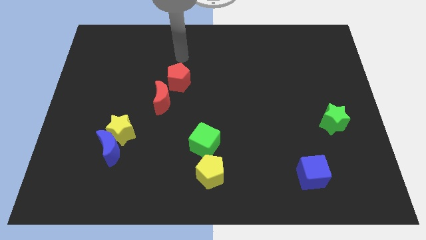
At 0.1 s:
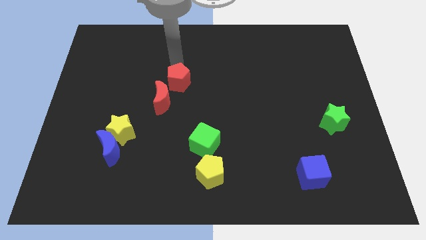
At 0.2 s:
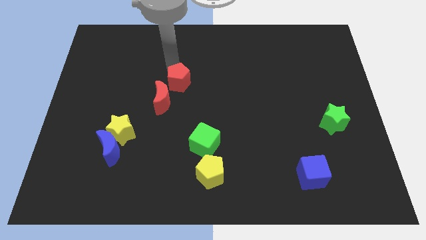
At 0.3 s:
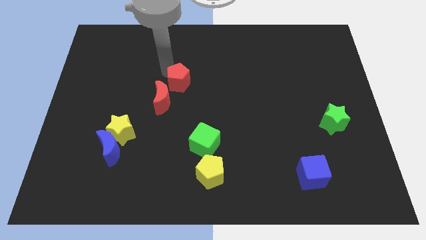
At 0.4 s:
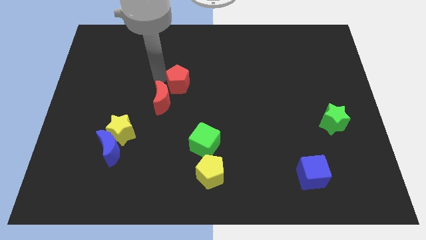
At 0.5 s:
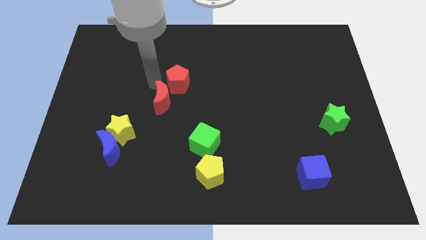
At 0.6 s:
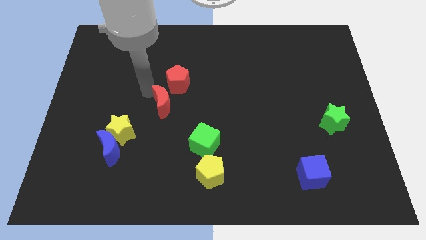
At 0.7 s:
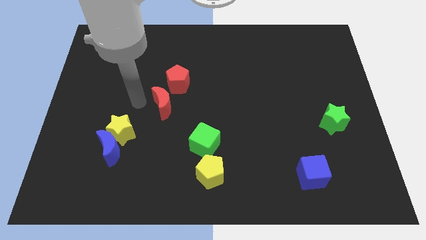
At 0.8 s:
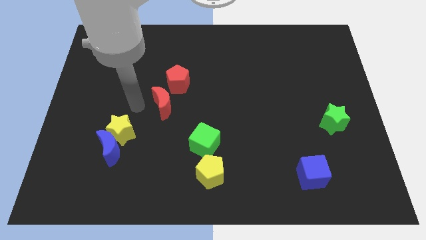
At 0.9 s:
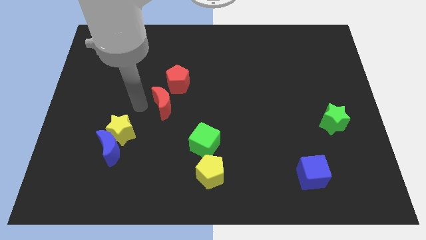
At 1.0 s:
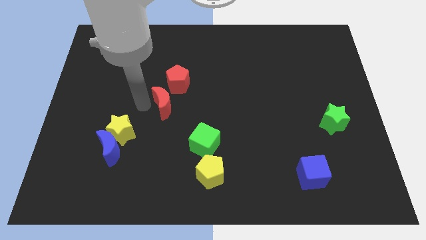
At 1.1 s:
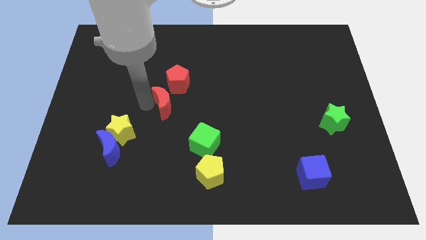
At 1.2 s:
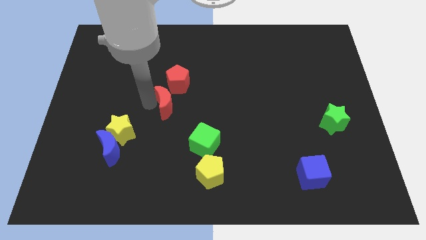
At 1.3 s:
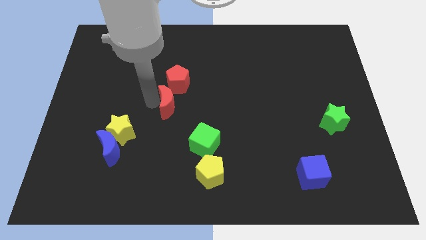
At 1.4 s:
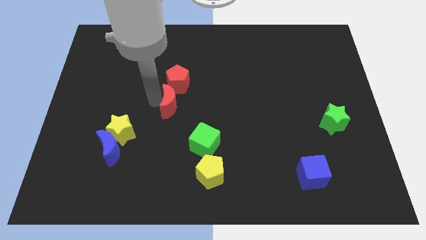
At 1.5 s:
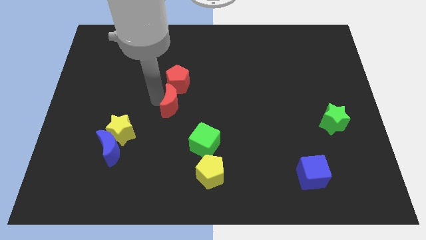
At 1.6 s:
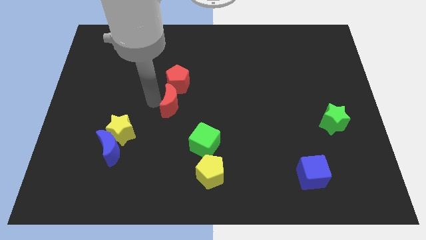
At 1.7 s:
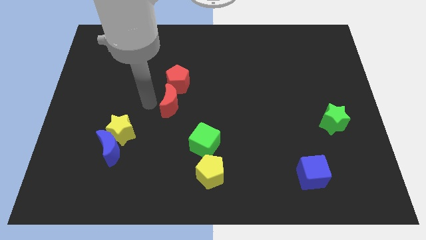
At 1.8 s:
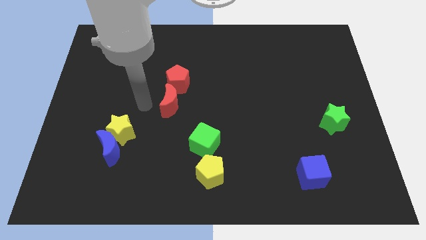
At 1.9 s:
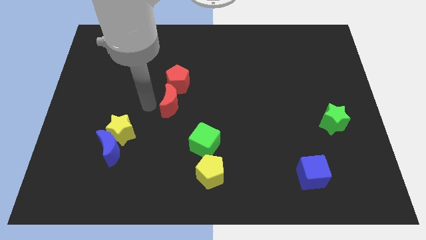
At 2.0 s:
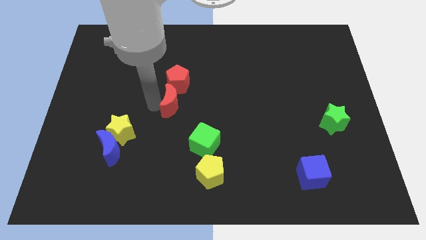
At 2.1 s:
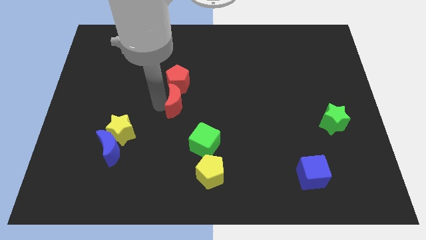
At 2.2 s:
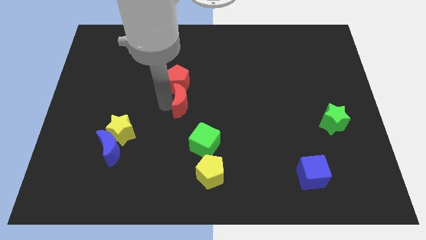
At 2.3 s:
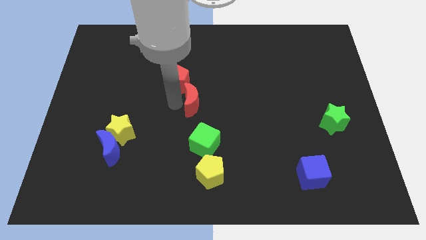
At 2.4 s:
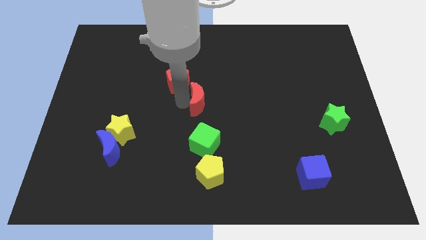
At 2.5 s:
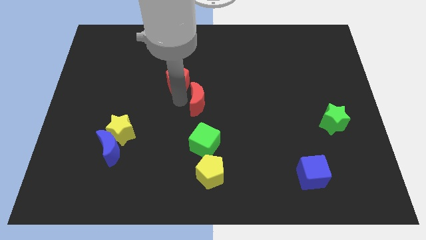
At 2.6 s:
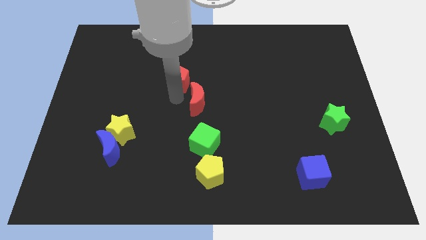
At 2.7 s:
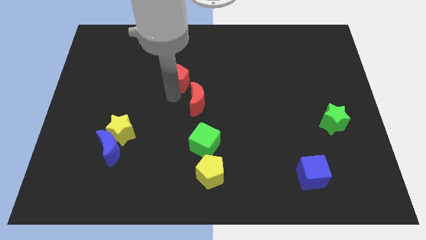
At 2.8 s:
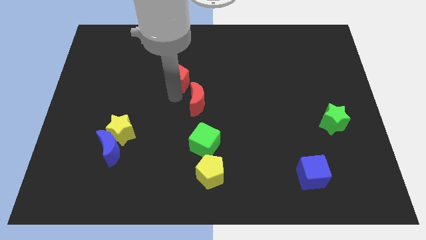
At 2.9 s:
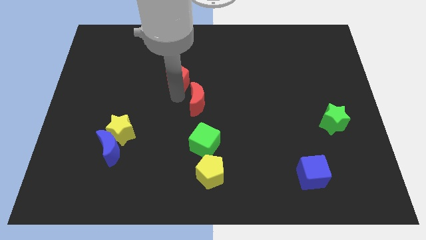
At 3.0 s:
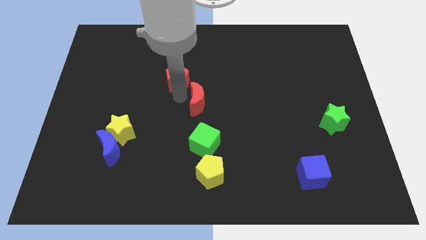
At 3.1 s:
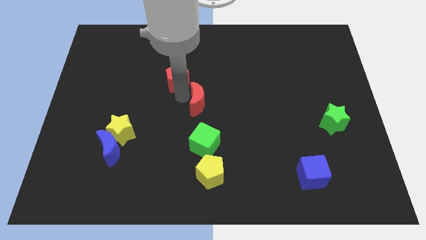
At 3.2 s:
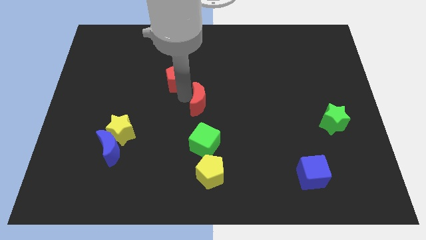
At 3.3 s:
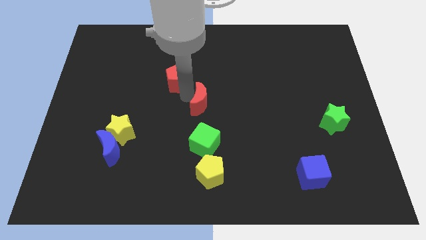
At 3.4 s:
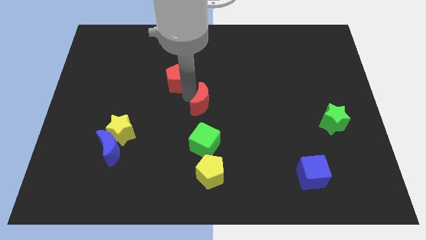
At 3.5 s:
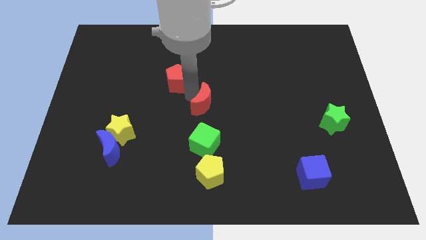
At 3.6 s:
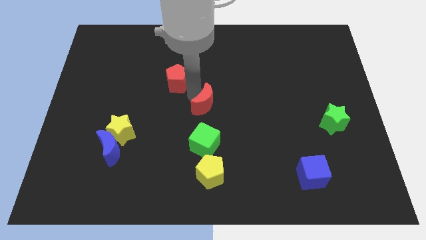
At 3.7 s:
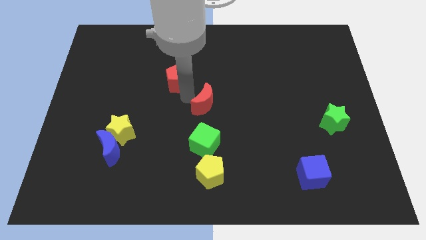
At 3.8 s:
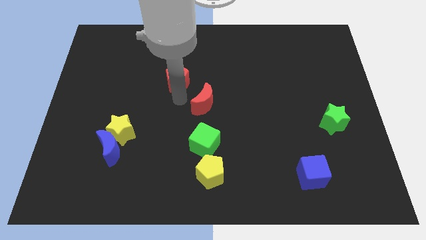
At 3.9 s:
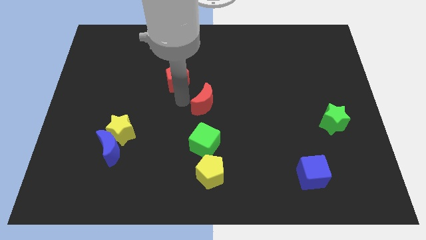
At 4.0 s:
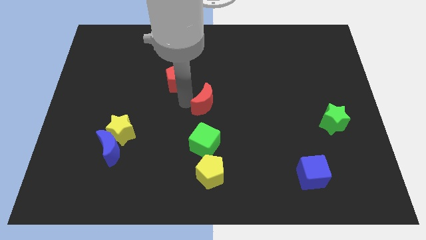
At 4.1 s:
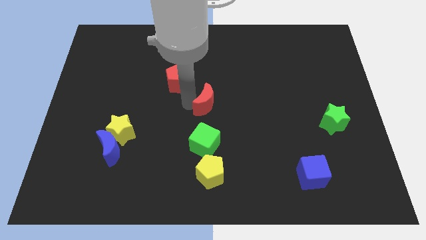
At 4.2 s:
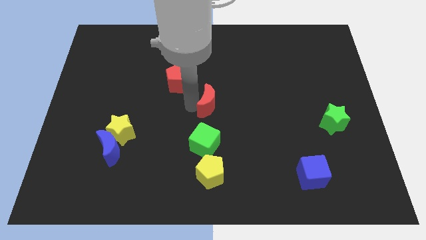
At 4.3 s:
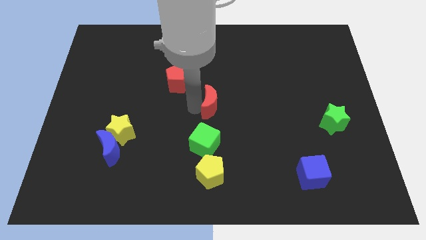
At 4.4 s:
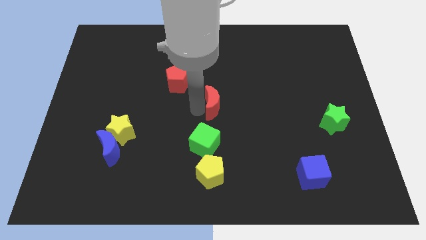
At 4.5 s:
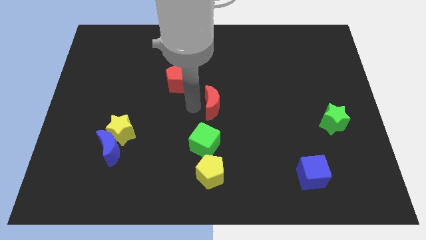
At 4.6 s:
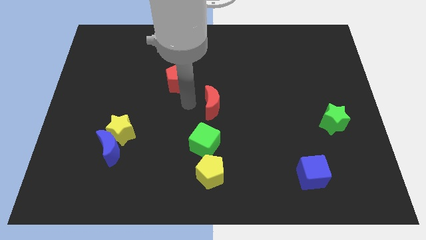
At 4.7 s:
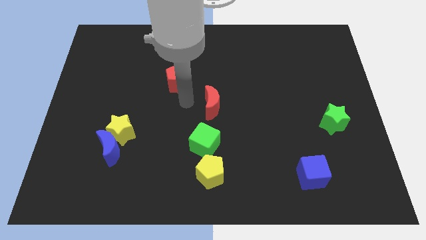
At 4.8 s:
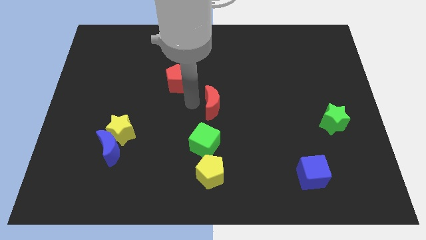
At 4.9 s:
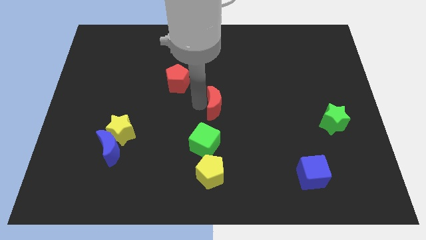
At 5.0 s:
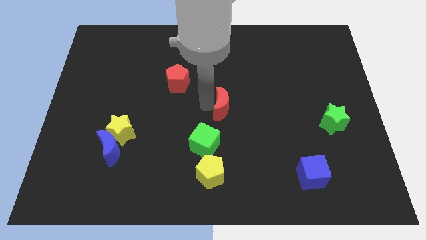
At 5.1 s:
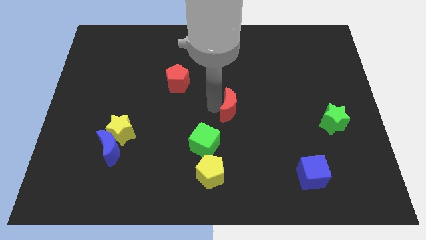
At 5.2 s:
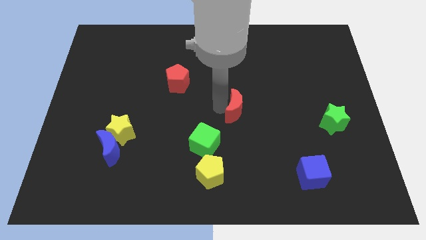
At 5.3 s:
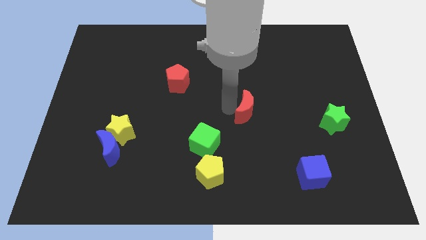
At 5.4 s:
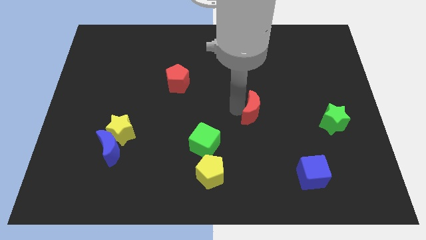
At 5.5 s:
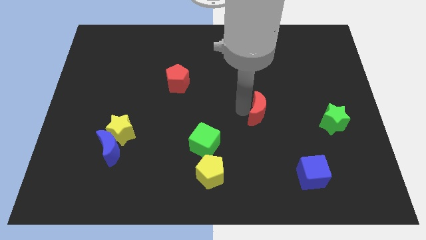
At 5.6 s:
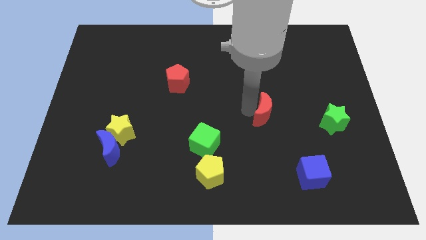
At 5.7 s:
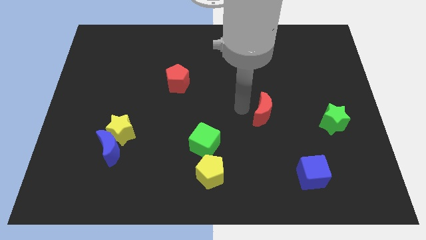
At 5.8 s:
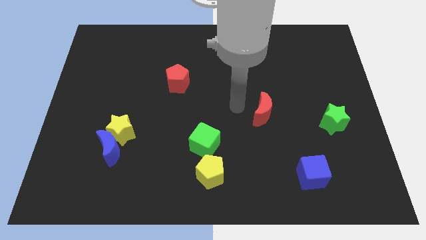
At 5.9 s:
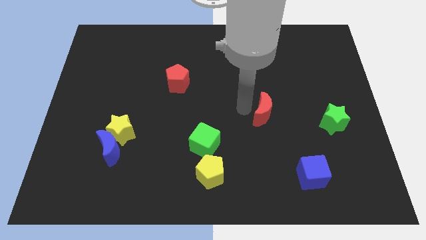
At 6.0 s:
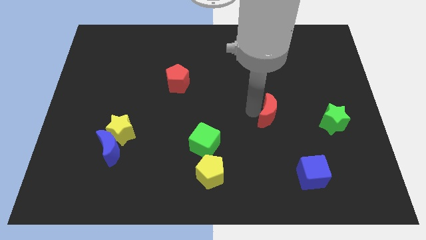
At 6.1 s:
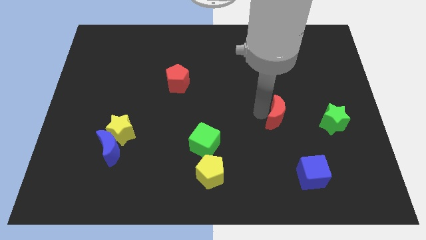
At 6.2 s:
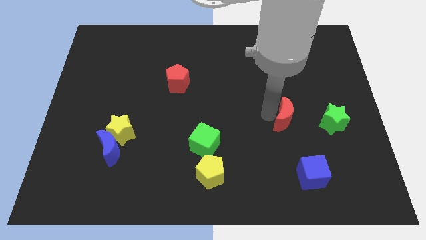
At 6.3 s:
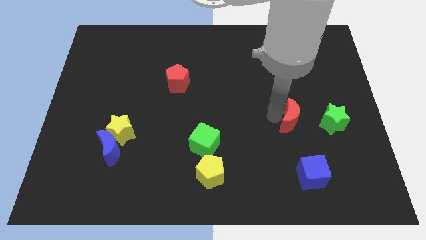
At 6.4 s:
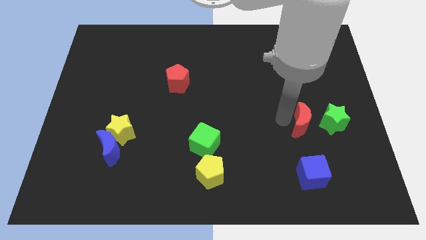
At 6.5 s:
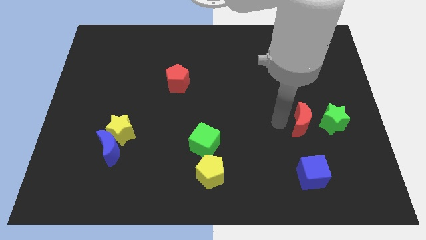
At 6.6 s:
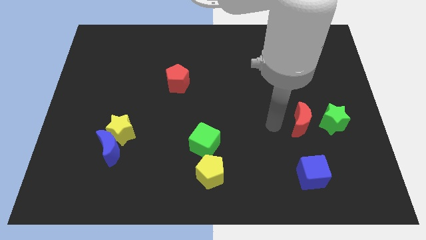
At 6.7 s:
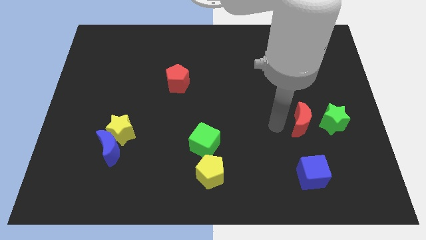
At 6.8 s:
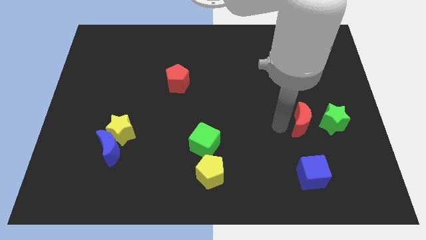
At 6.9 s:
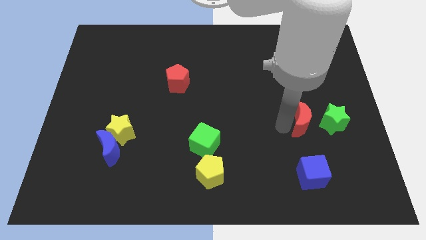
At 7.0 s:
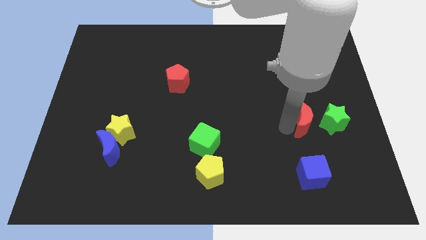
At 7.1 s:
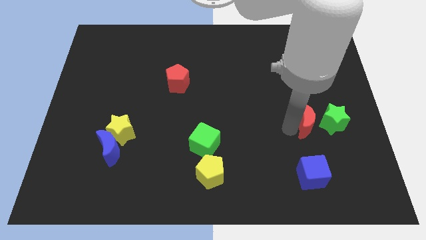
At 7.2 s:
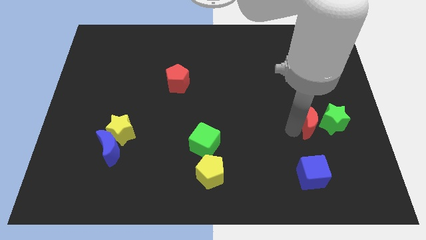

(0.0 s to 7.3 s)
push the red moon towards the green star
